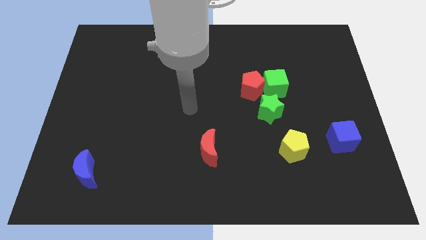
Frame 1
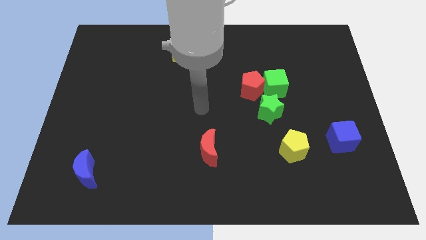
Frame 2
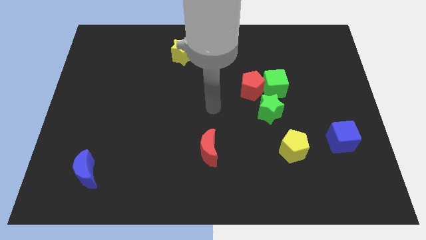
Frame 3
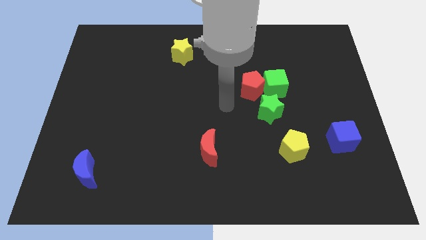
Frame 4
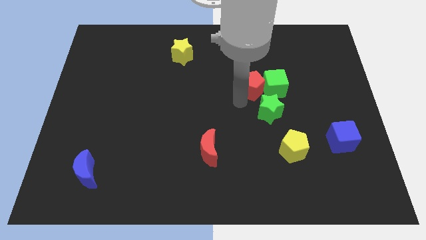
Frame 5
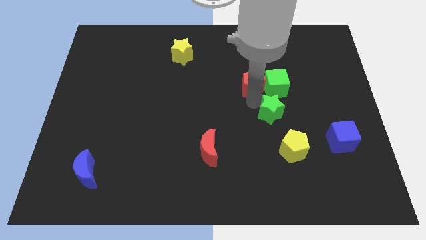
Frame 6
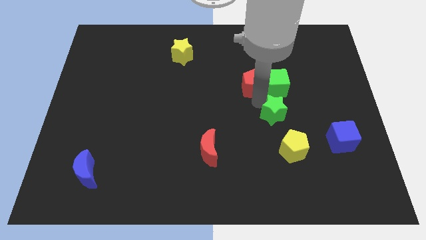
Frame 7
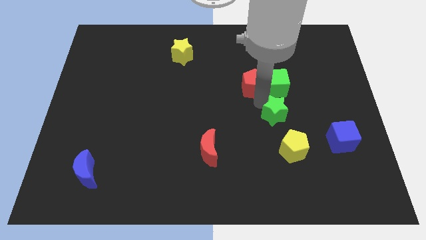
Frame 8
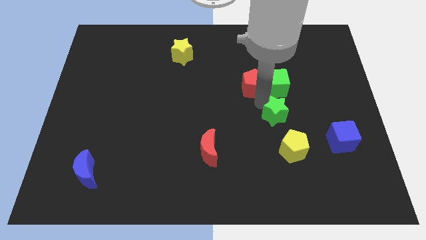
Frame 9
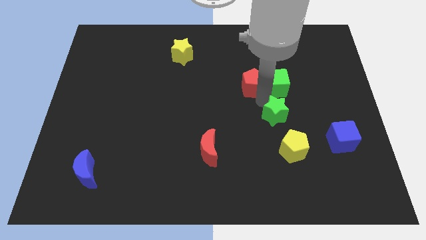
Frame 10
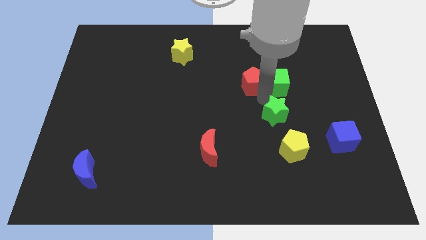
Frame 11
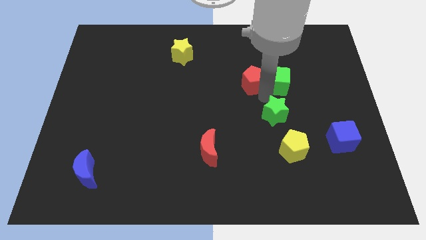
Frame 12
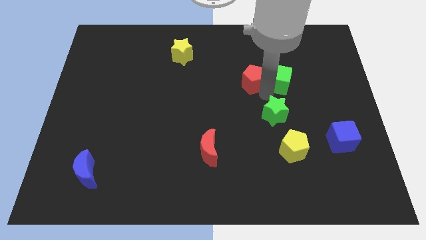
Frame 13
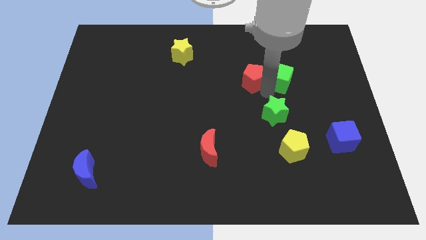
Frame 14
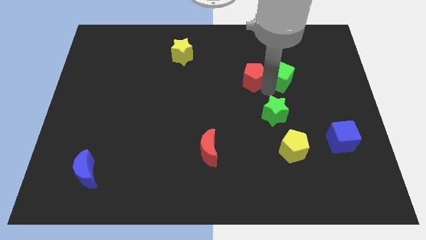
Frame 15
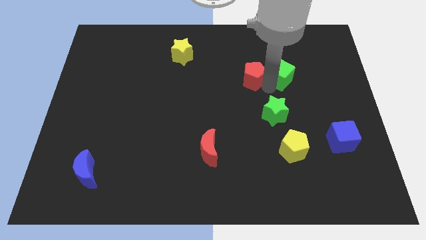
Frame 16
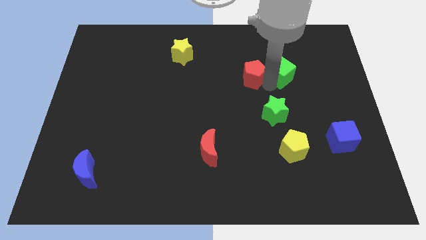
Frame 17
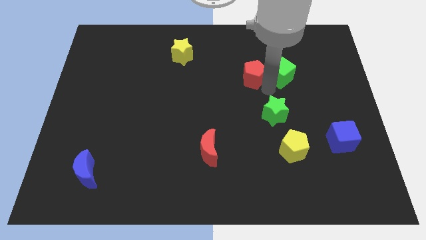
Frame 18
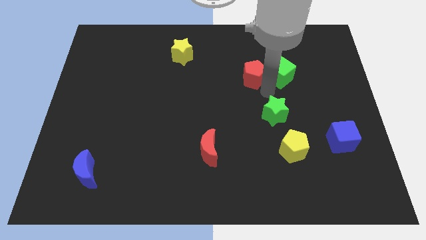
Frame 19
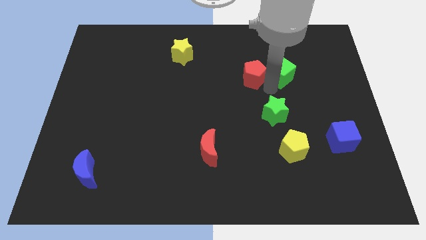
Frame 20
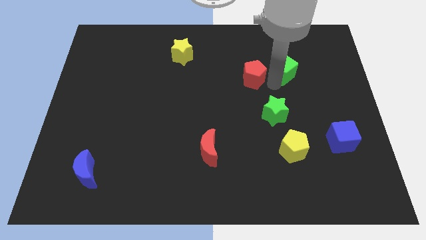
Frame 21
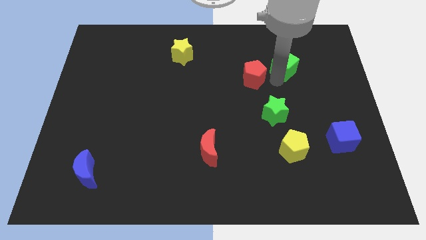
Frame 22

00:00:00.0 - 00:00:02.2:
pull the green cube apart from the red pentagon and green star

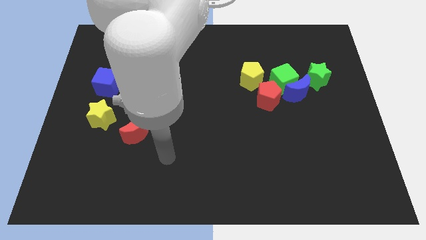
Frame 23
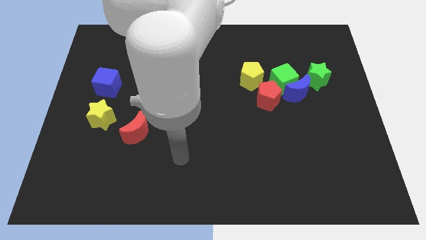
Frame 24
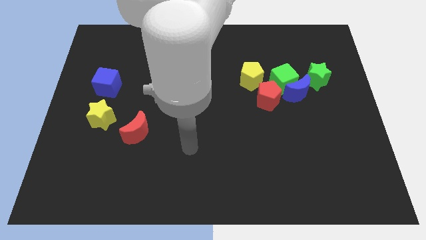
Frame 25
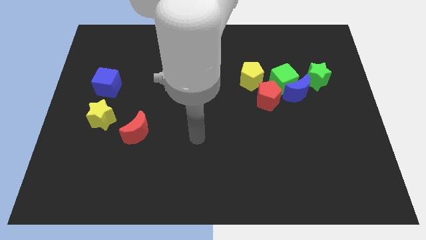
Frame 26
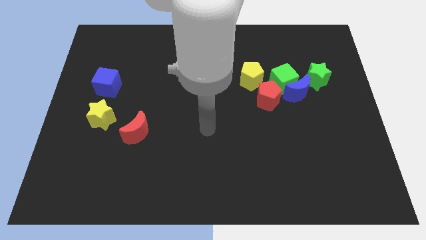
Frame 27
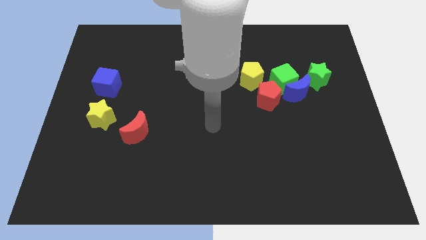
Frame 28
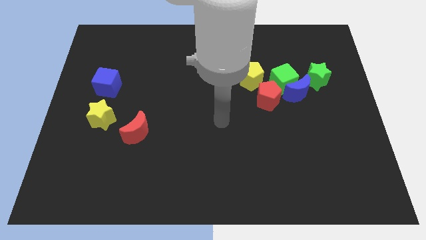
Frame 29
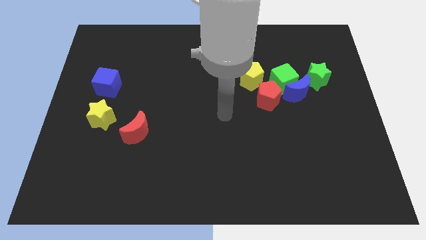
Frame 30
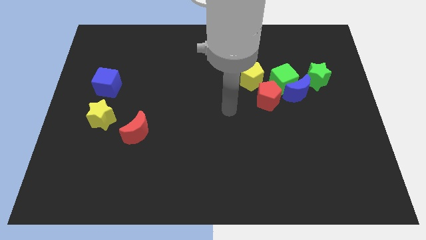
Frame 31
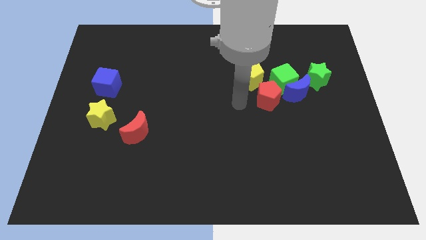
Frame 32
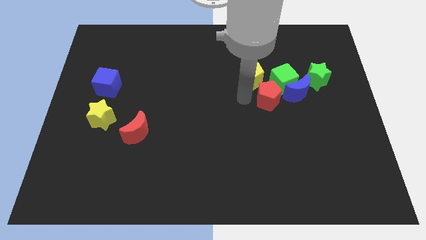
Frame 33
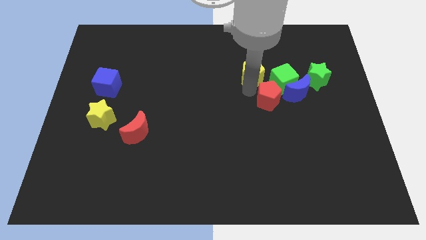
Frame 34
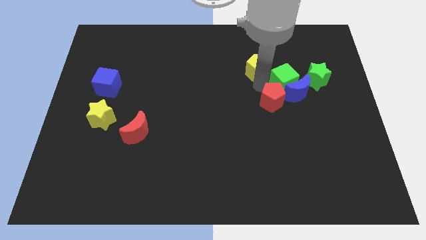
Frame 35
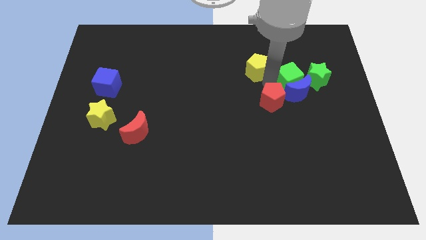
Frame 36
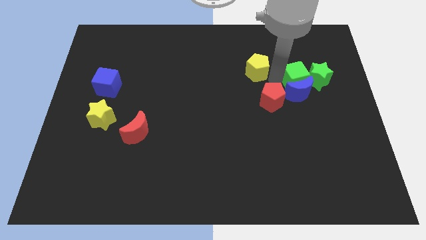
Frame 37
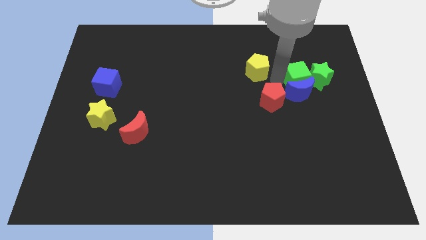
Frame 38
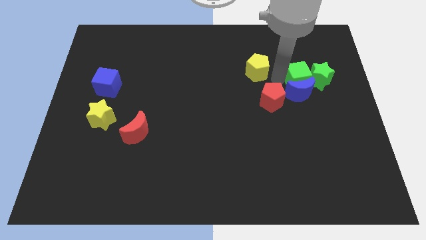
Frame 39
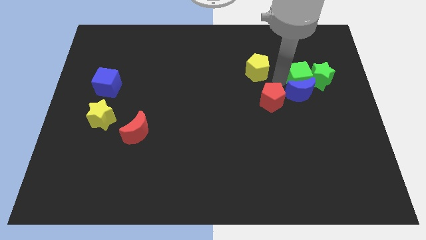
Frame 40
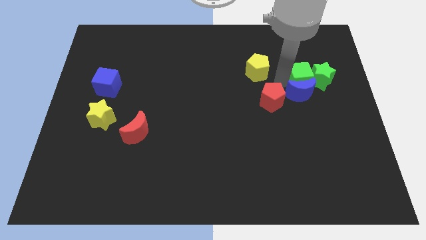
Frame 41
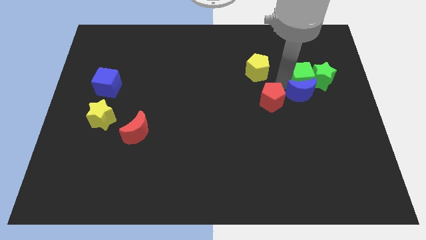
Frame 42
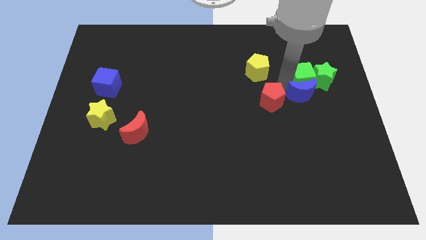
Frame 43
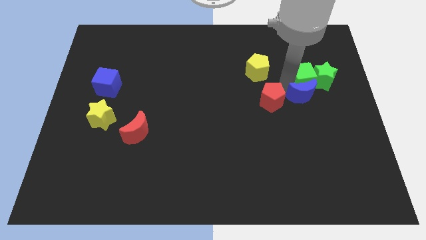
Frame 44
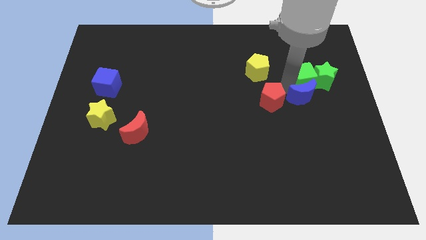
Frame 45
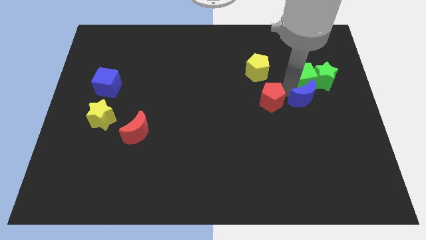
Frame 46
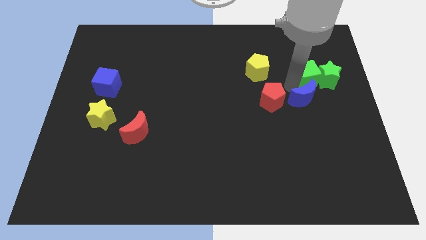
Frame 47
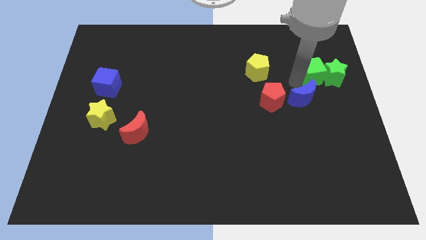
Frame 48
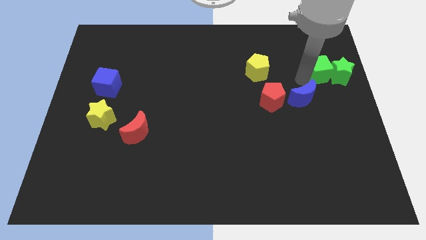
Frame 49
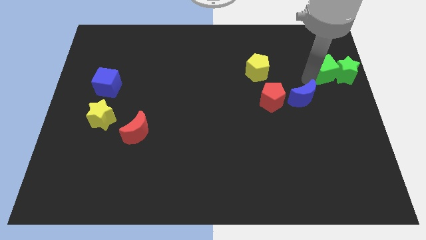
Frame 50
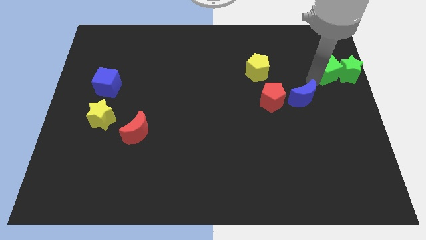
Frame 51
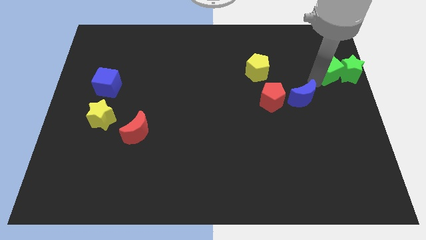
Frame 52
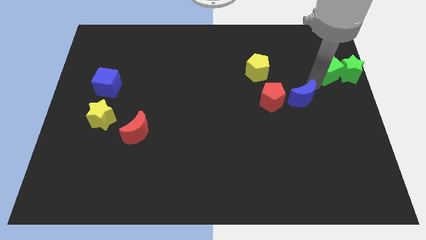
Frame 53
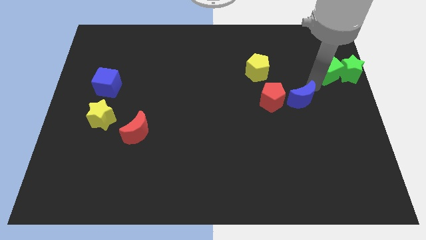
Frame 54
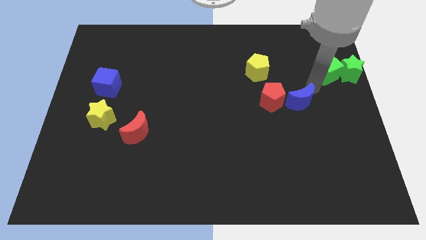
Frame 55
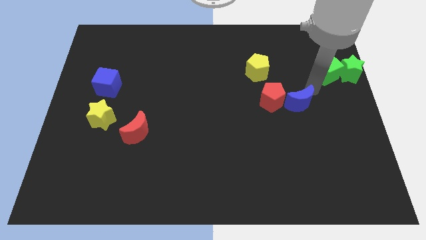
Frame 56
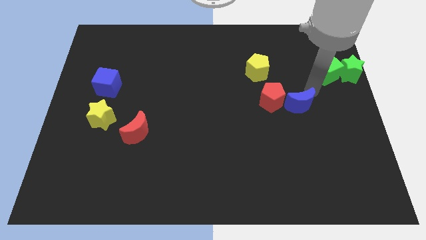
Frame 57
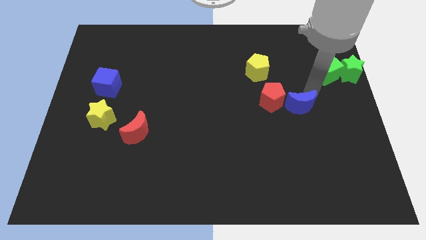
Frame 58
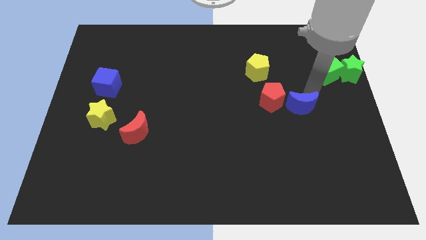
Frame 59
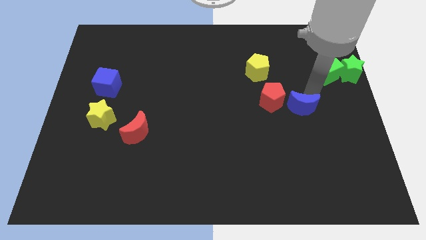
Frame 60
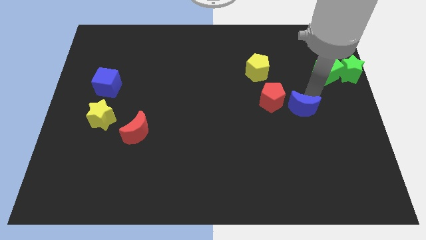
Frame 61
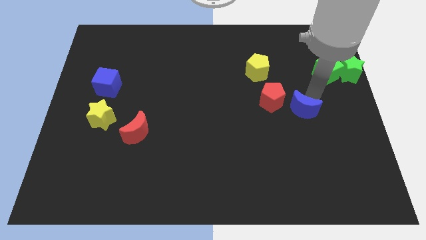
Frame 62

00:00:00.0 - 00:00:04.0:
separate the blue moon from the green cube, green star, and red pentagon

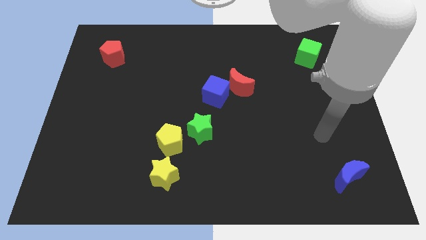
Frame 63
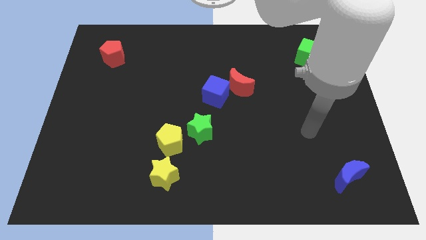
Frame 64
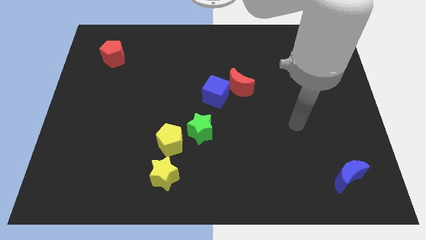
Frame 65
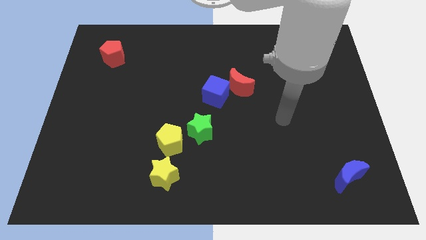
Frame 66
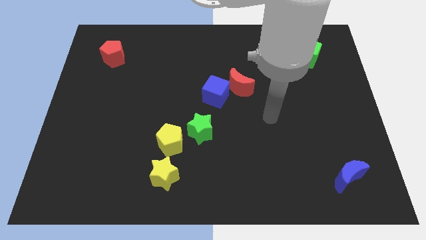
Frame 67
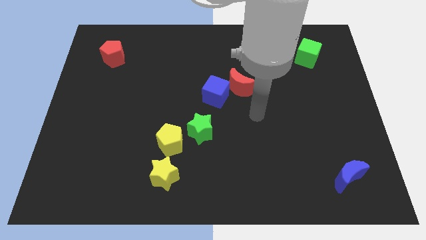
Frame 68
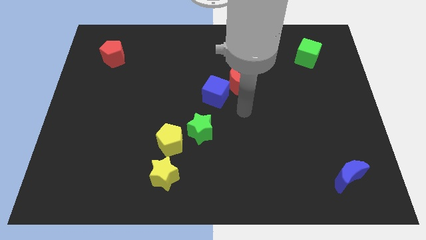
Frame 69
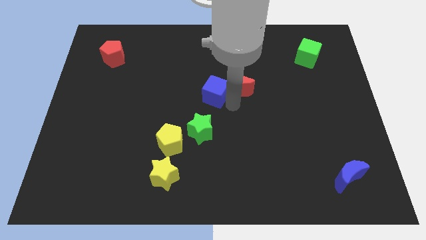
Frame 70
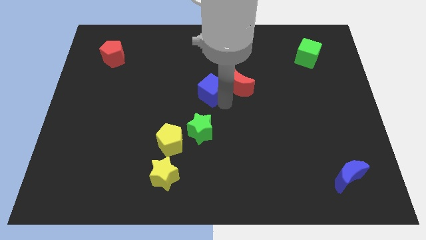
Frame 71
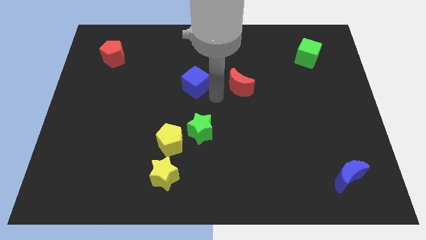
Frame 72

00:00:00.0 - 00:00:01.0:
pull the red moon apart from the blue cube

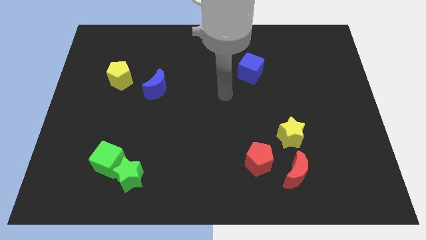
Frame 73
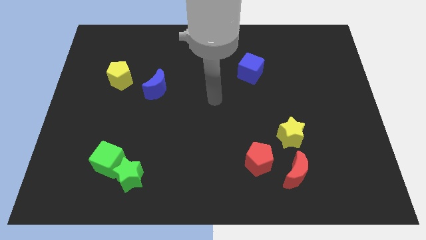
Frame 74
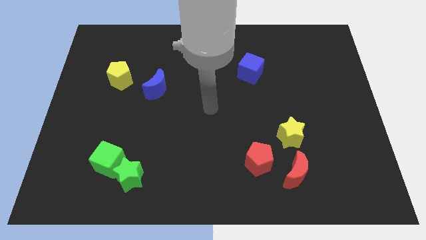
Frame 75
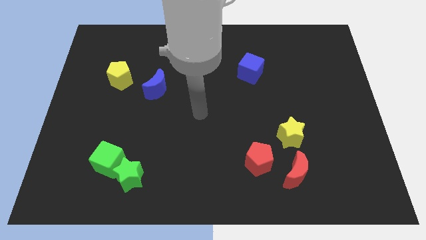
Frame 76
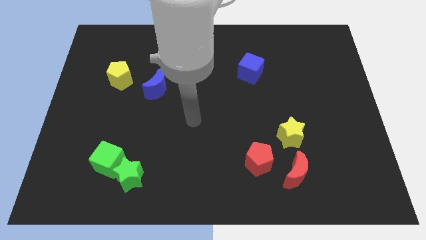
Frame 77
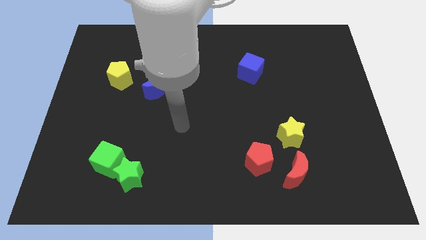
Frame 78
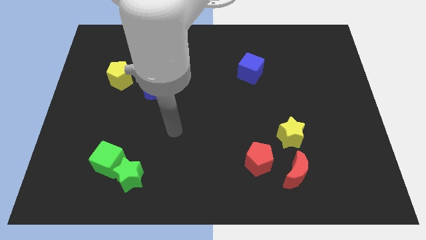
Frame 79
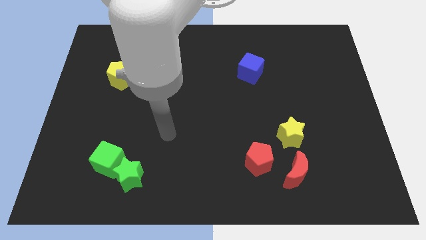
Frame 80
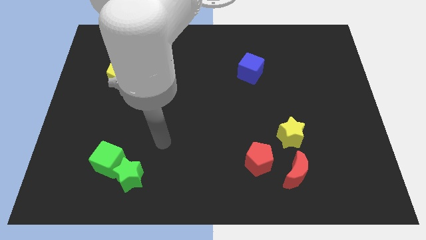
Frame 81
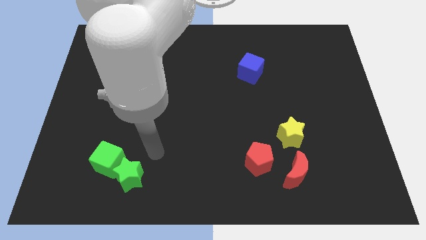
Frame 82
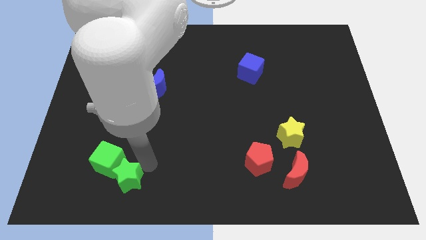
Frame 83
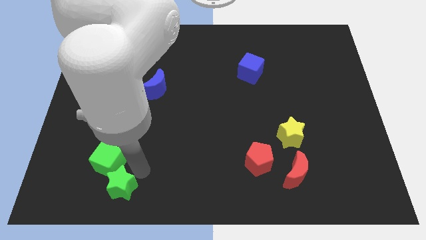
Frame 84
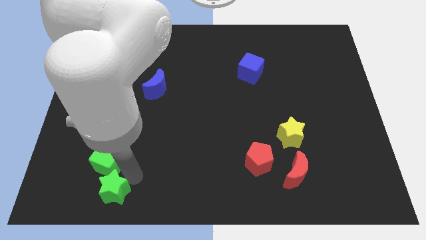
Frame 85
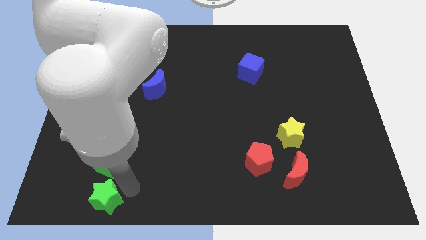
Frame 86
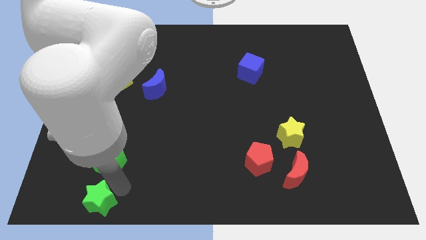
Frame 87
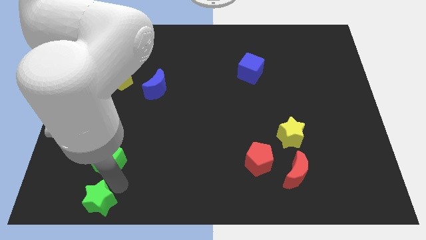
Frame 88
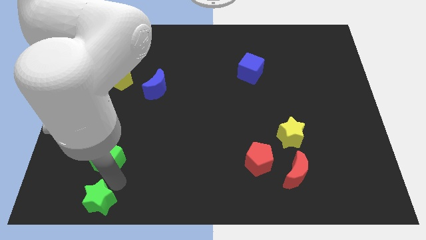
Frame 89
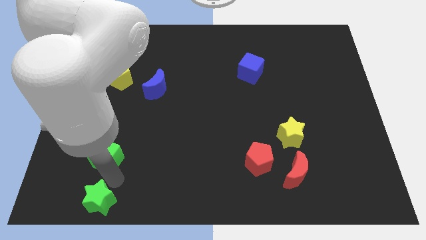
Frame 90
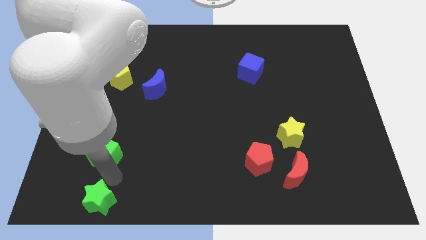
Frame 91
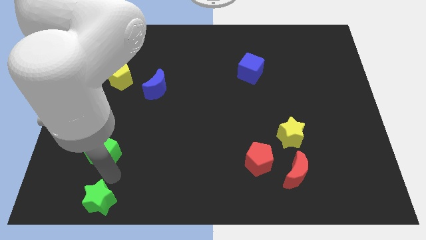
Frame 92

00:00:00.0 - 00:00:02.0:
move the green cube away from the green star
